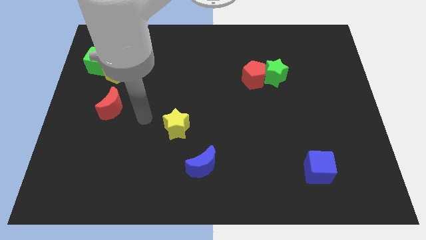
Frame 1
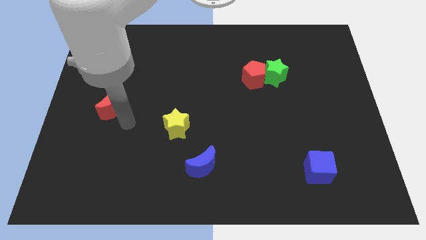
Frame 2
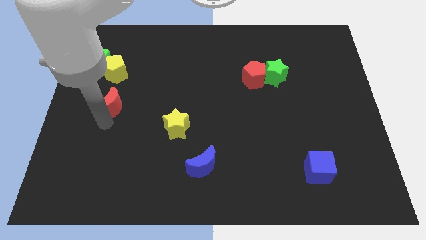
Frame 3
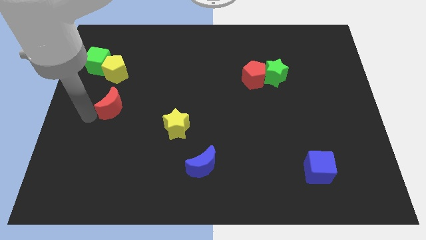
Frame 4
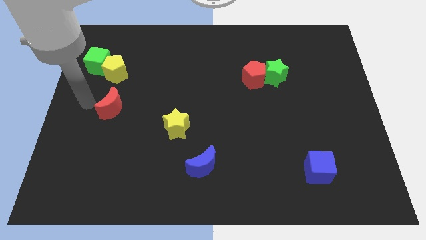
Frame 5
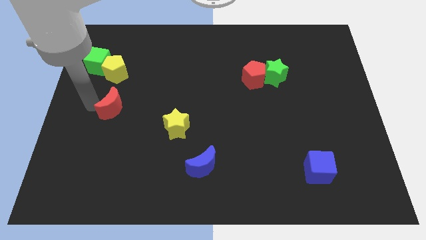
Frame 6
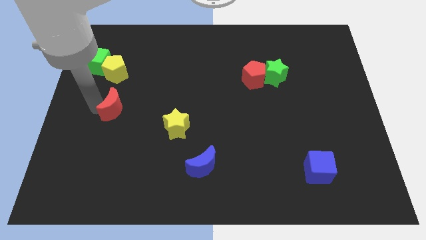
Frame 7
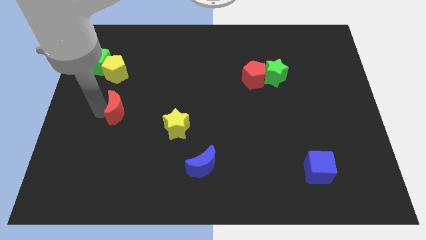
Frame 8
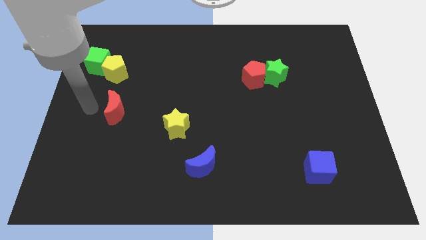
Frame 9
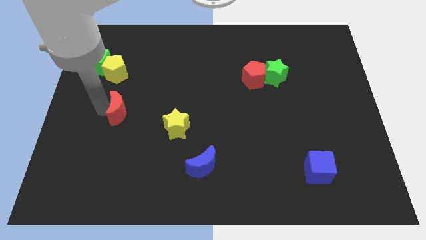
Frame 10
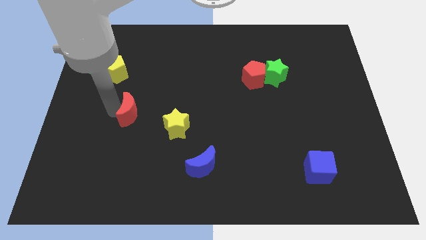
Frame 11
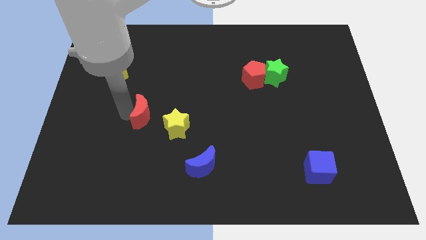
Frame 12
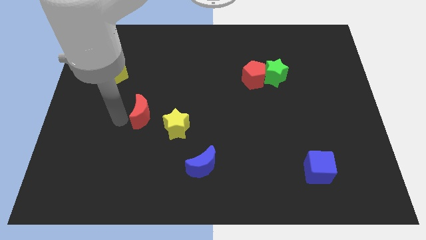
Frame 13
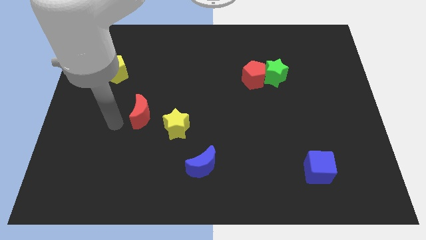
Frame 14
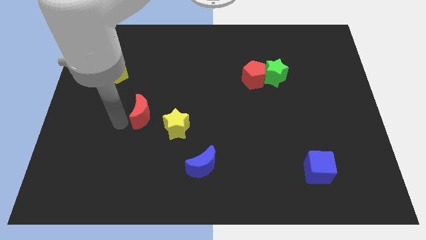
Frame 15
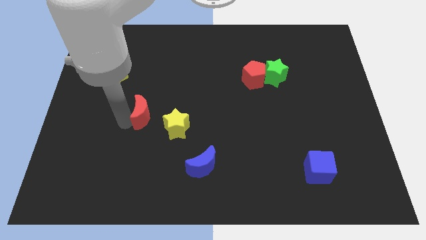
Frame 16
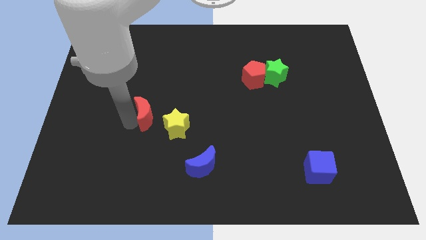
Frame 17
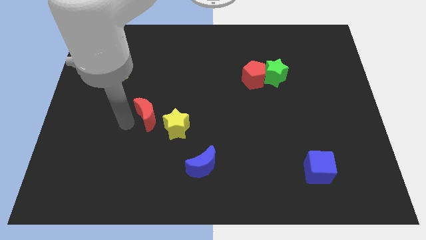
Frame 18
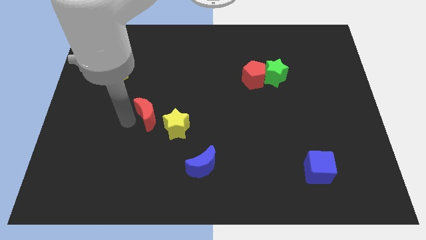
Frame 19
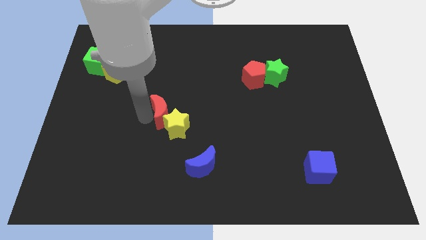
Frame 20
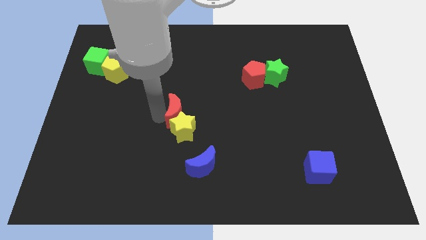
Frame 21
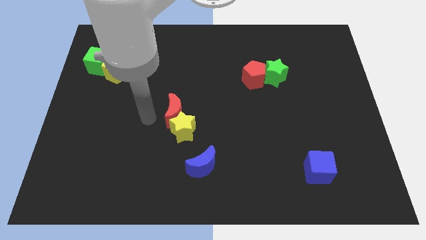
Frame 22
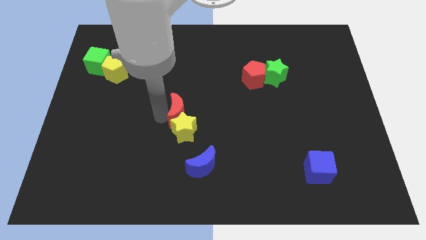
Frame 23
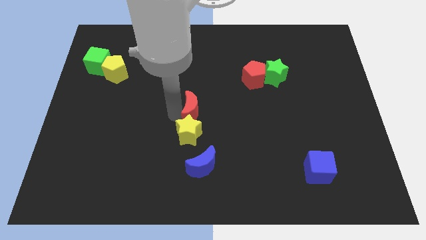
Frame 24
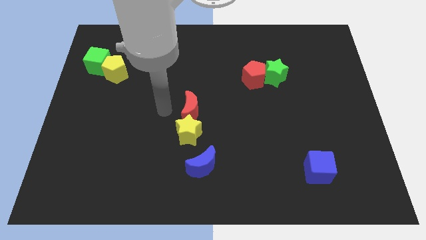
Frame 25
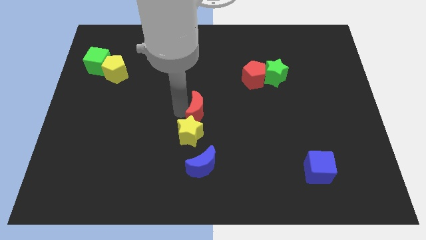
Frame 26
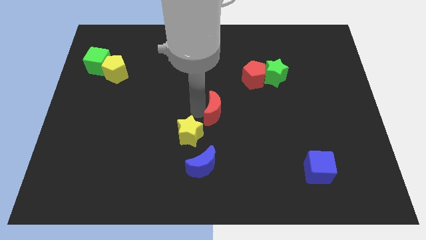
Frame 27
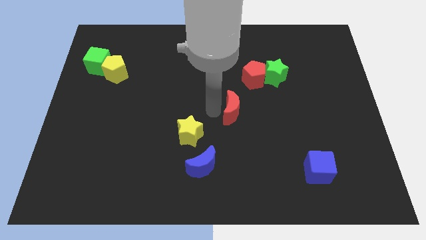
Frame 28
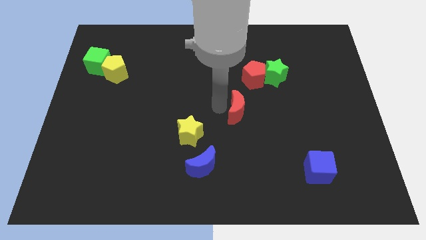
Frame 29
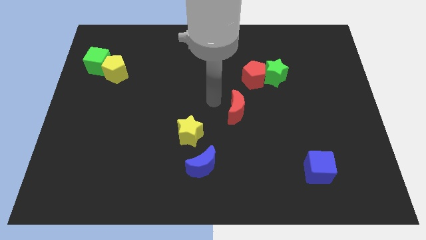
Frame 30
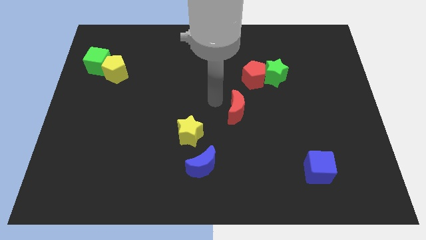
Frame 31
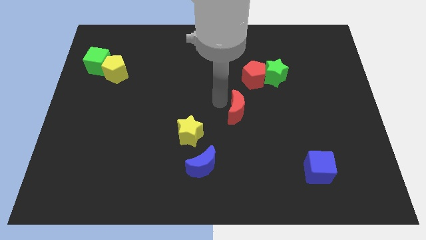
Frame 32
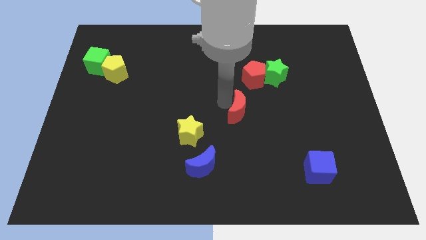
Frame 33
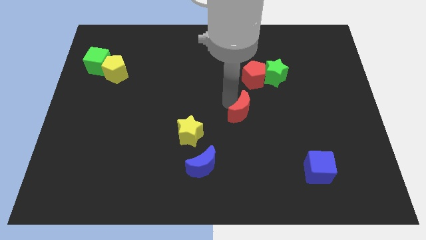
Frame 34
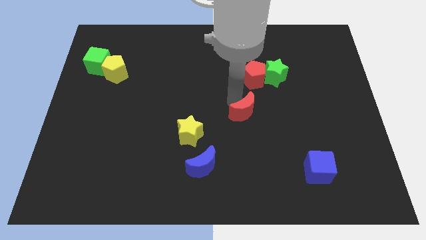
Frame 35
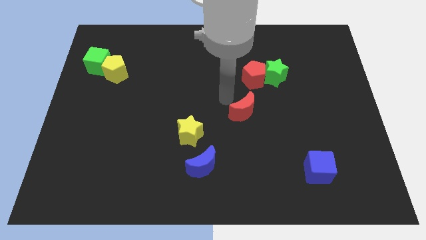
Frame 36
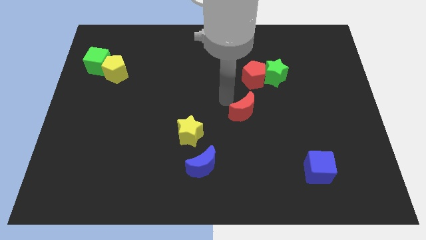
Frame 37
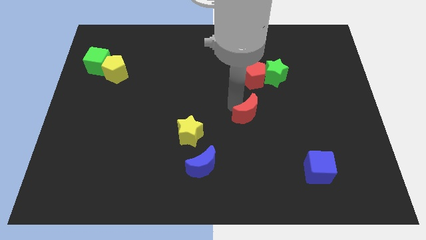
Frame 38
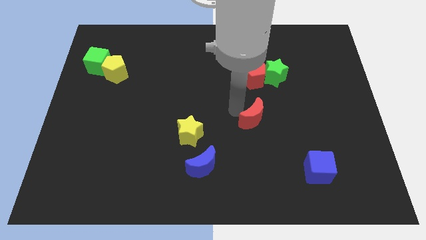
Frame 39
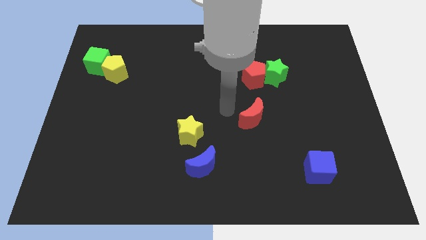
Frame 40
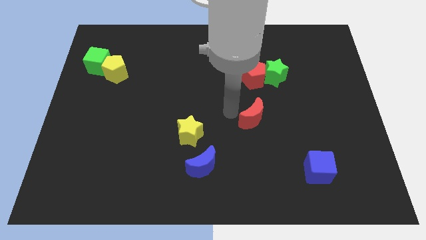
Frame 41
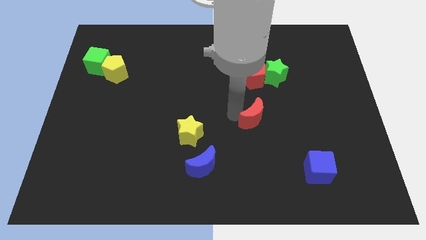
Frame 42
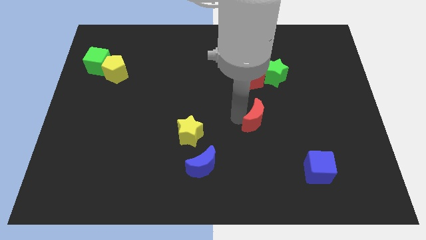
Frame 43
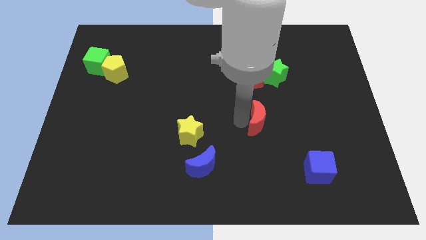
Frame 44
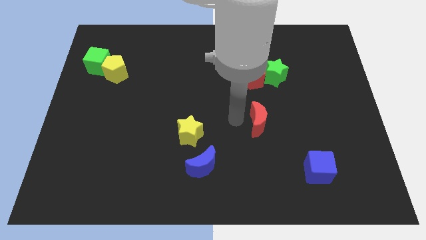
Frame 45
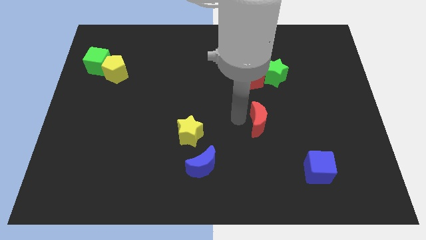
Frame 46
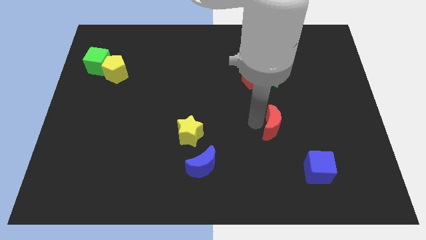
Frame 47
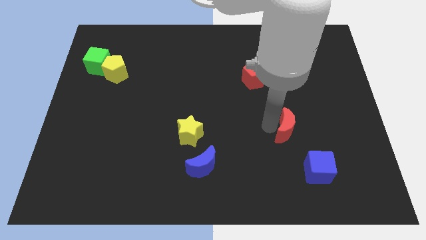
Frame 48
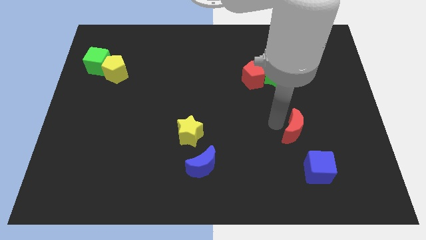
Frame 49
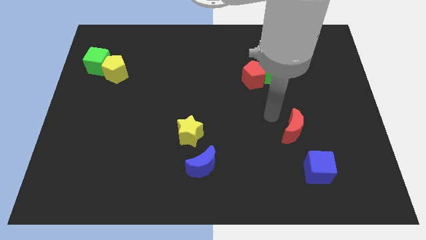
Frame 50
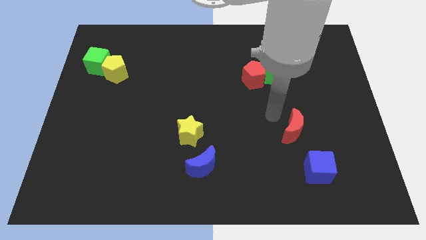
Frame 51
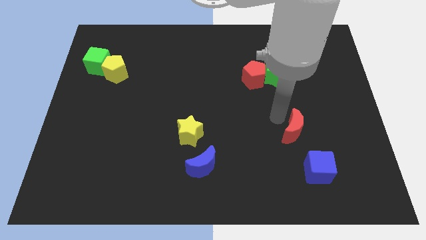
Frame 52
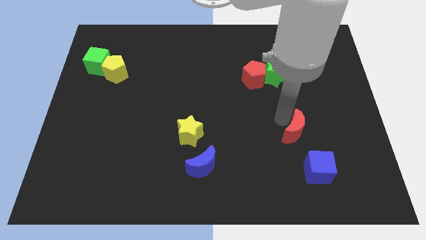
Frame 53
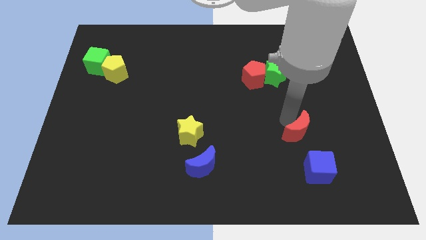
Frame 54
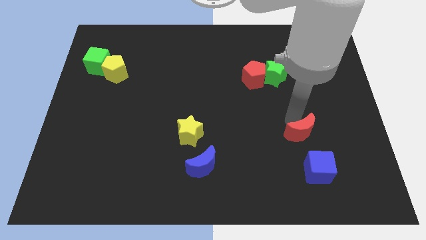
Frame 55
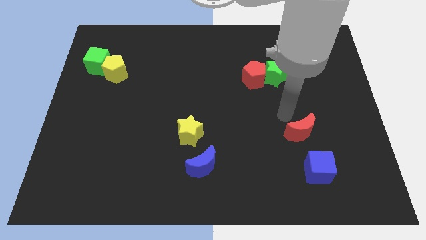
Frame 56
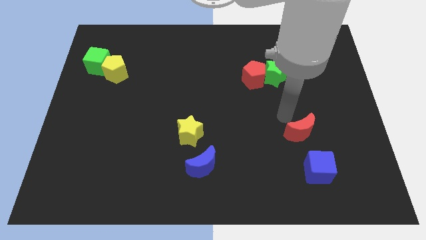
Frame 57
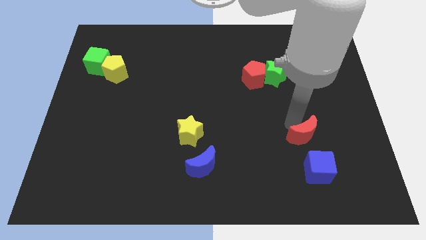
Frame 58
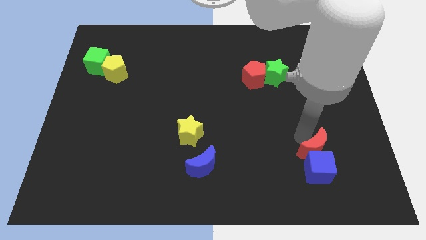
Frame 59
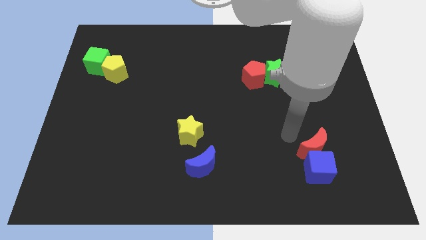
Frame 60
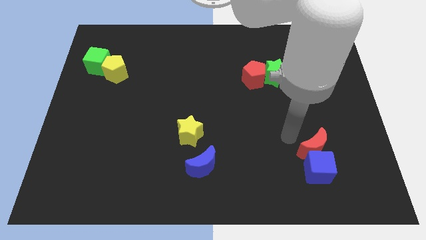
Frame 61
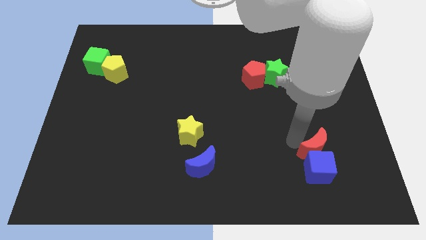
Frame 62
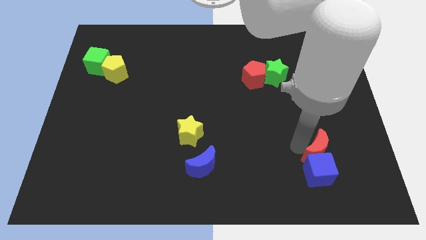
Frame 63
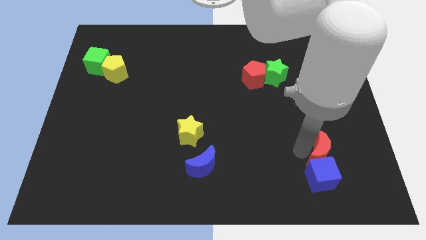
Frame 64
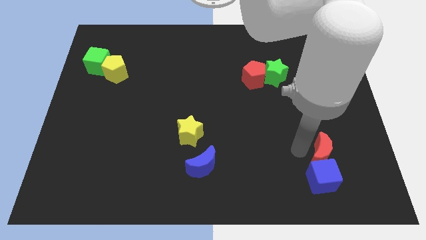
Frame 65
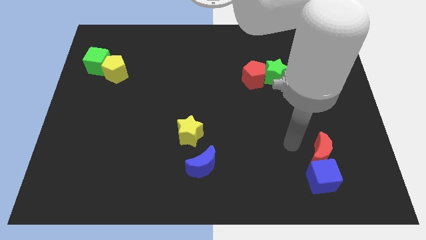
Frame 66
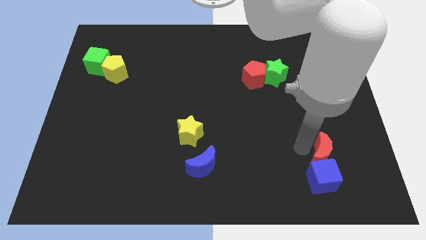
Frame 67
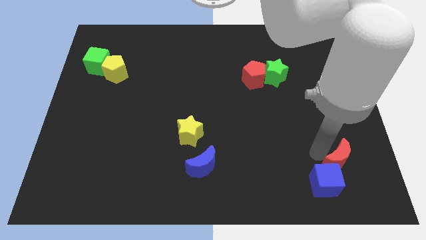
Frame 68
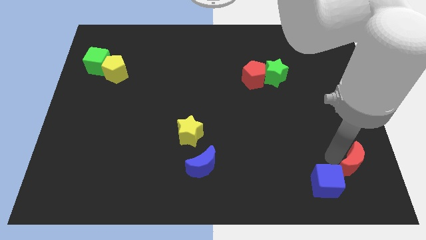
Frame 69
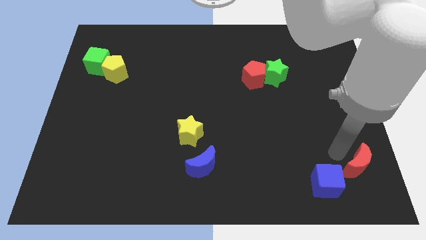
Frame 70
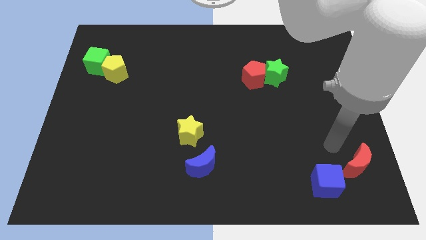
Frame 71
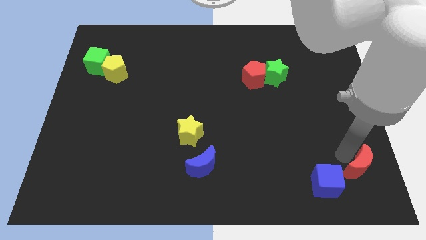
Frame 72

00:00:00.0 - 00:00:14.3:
slide the red moon to the bottom right of the board

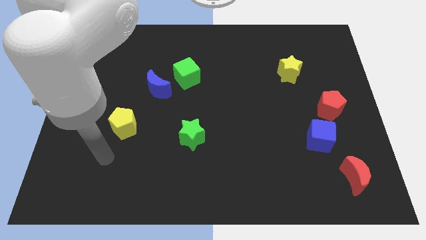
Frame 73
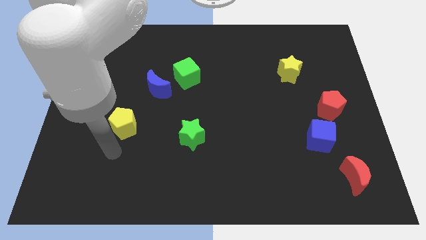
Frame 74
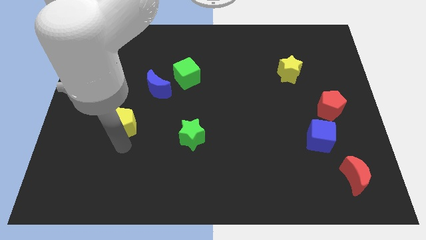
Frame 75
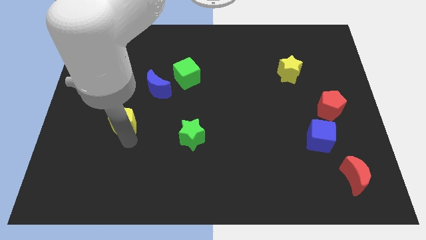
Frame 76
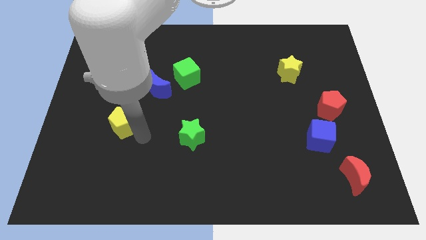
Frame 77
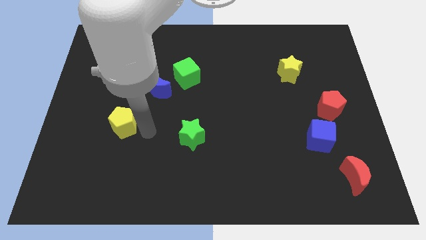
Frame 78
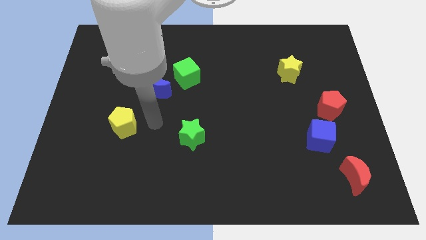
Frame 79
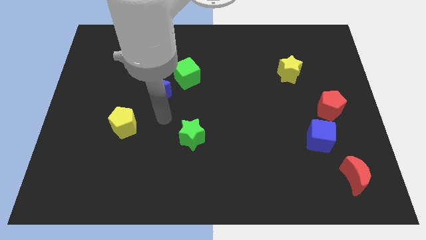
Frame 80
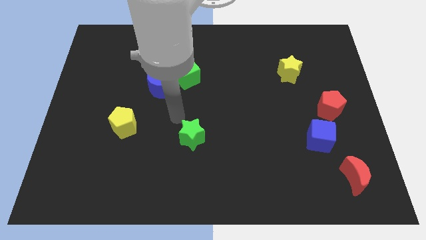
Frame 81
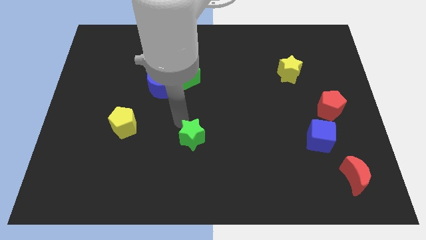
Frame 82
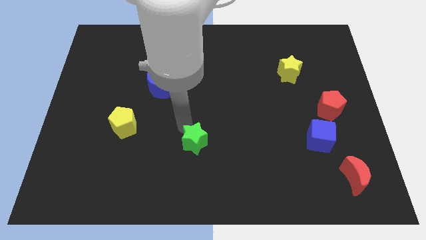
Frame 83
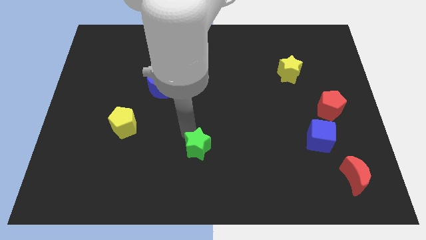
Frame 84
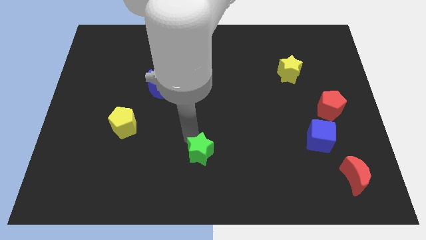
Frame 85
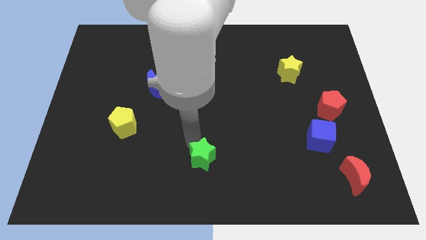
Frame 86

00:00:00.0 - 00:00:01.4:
slide the green star to the bottom
